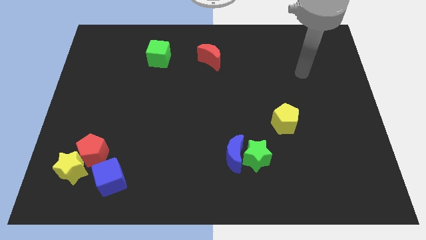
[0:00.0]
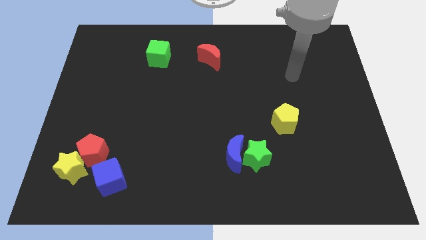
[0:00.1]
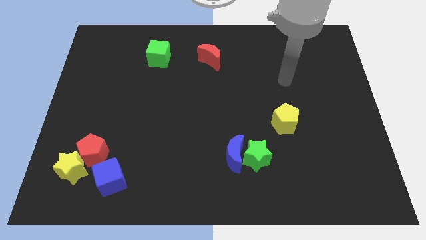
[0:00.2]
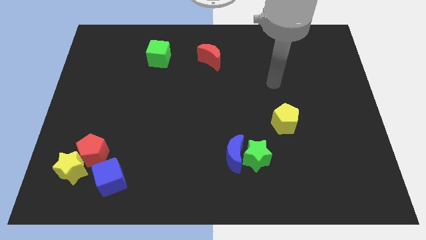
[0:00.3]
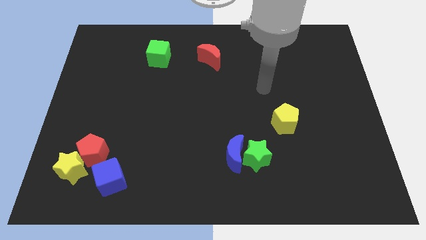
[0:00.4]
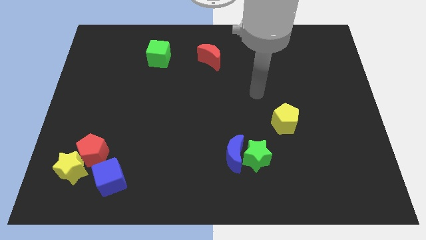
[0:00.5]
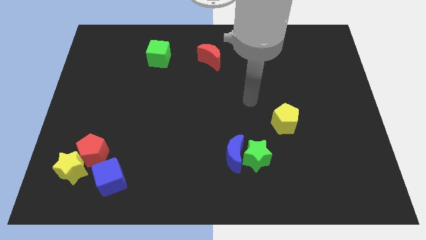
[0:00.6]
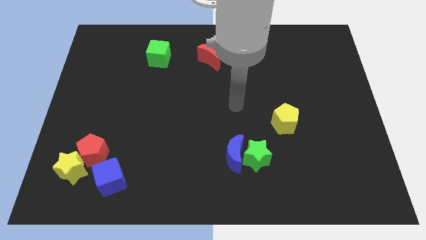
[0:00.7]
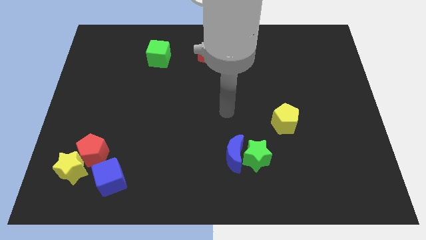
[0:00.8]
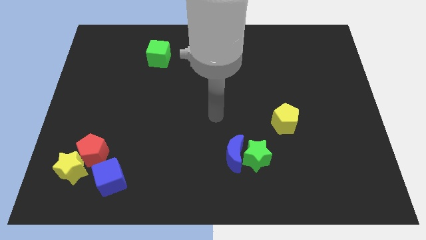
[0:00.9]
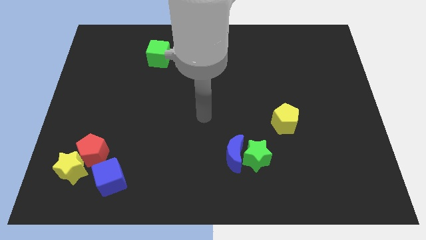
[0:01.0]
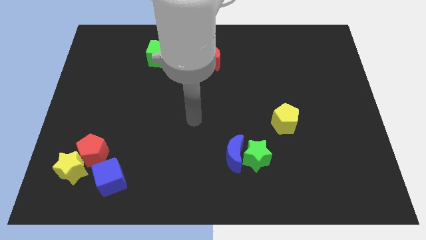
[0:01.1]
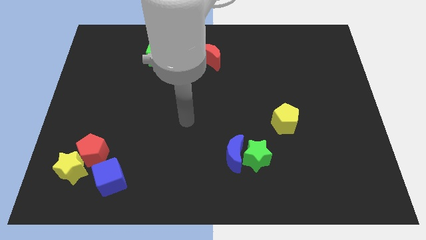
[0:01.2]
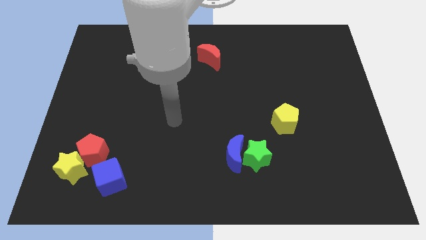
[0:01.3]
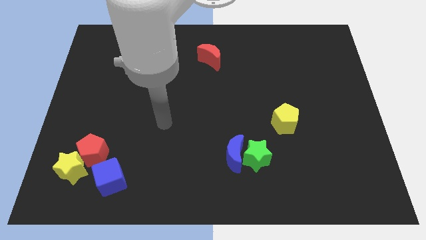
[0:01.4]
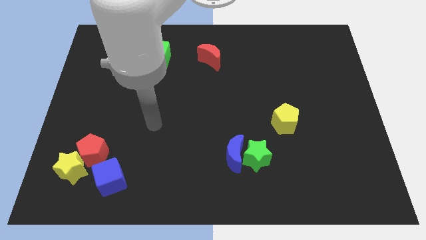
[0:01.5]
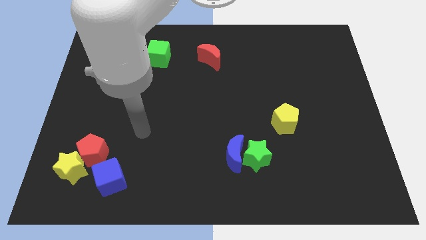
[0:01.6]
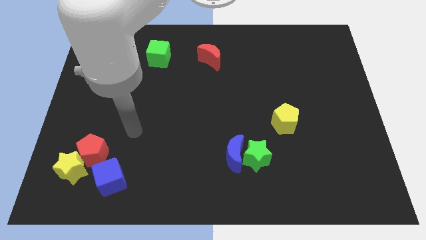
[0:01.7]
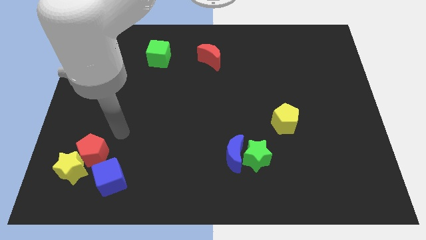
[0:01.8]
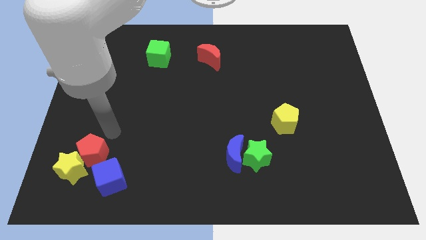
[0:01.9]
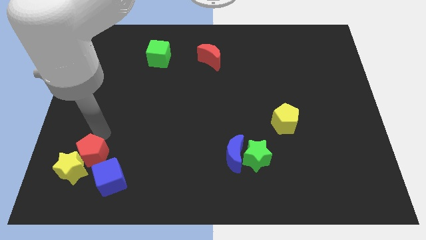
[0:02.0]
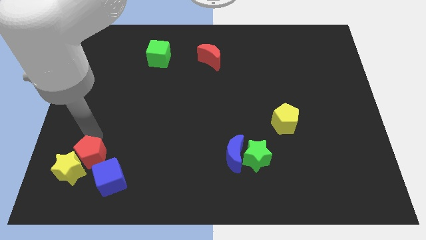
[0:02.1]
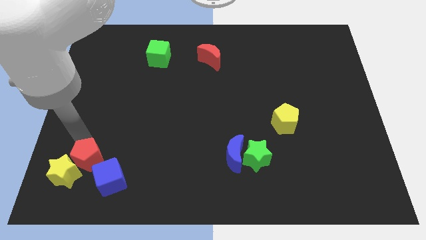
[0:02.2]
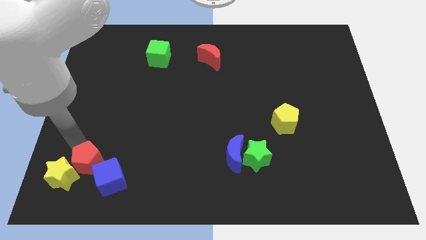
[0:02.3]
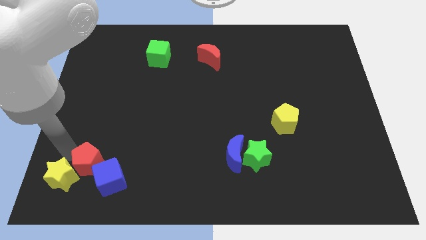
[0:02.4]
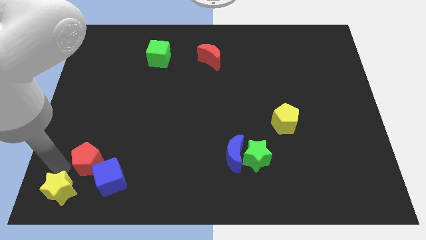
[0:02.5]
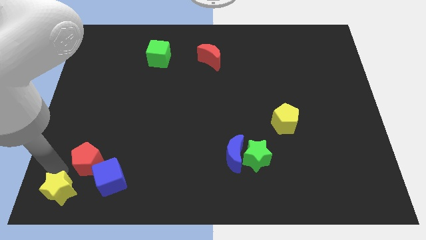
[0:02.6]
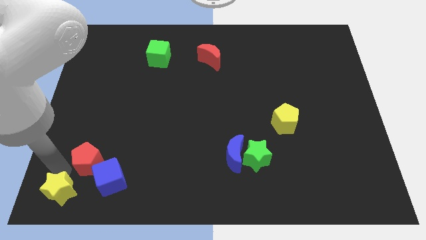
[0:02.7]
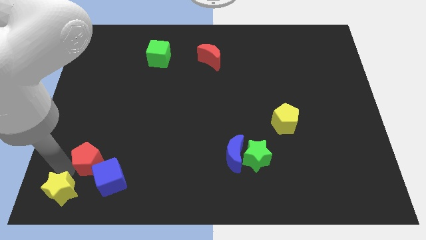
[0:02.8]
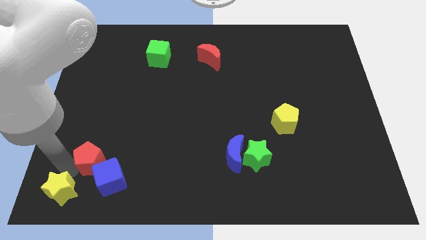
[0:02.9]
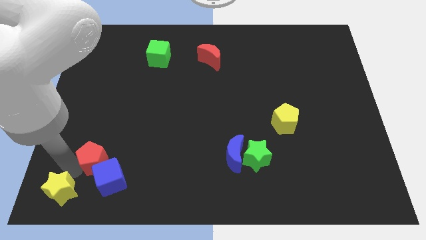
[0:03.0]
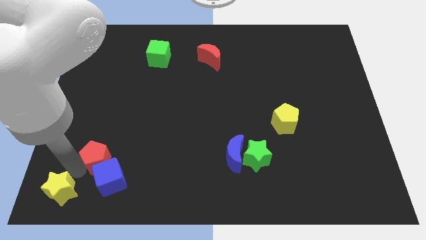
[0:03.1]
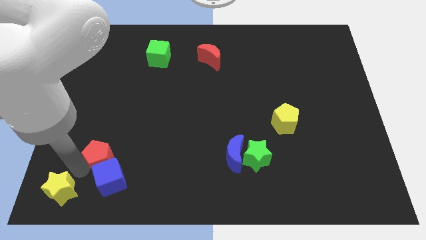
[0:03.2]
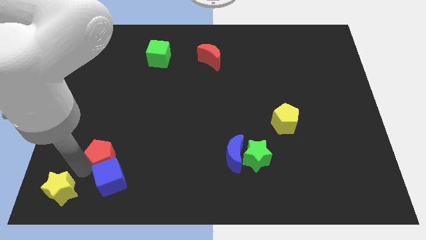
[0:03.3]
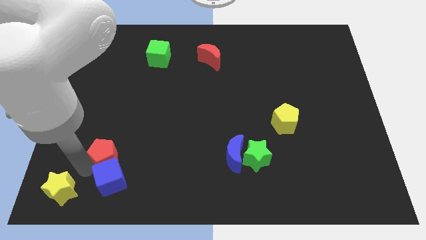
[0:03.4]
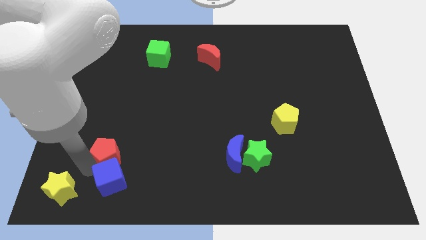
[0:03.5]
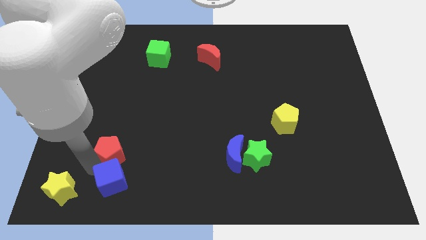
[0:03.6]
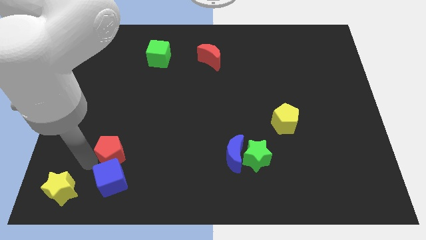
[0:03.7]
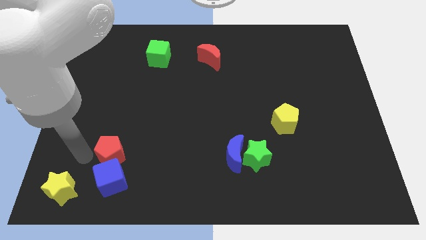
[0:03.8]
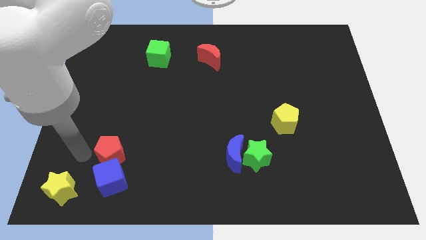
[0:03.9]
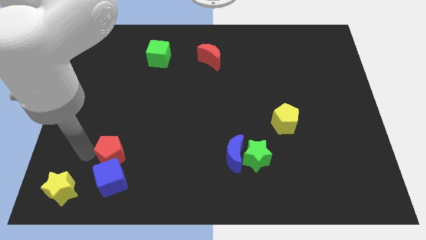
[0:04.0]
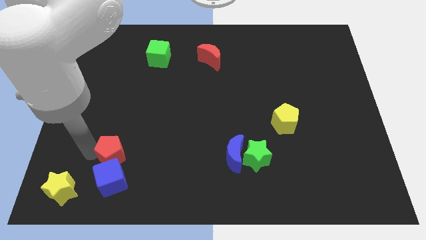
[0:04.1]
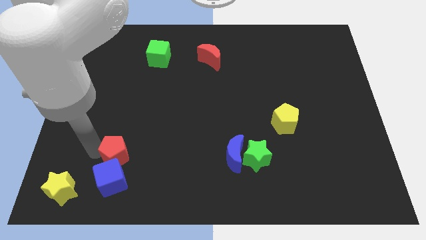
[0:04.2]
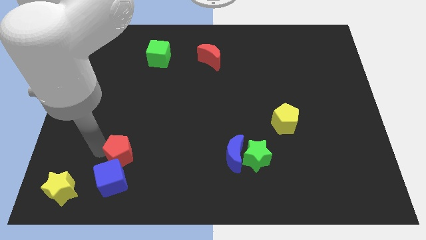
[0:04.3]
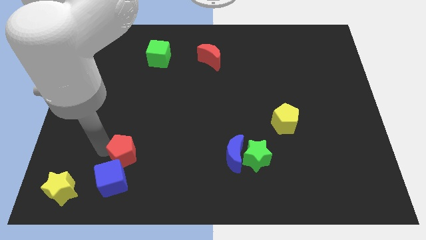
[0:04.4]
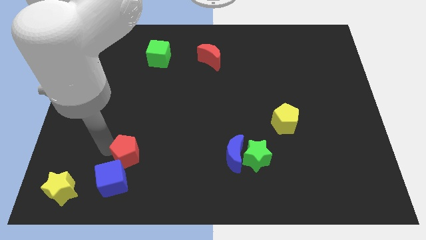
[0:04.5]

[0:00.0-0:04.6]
slightly push the red pentagon right

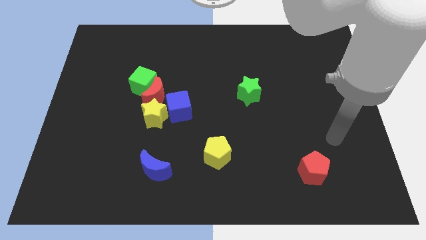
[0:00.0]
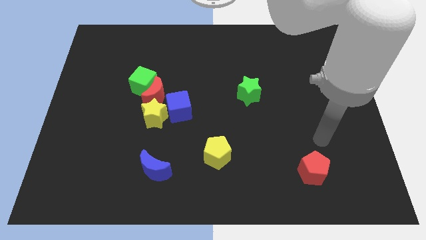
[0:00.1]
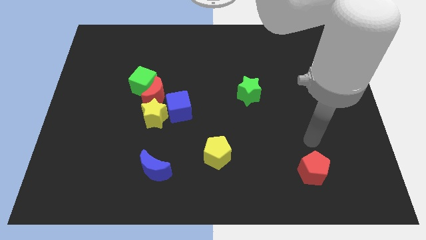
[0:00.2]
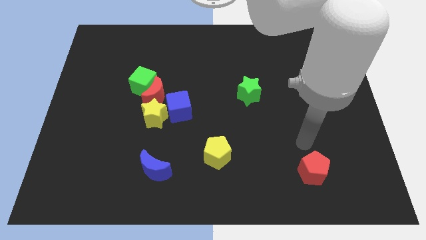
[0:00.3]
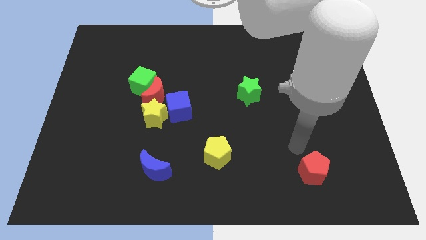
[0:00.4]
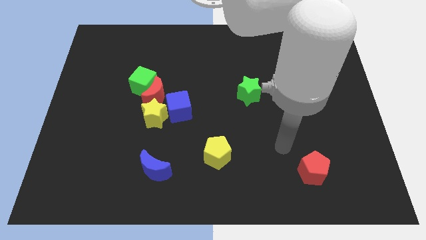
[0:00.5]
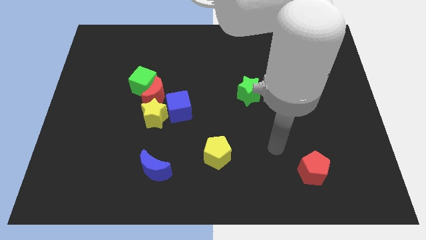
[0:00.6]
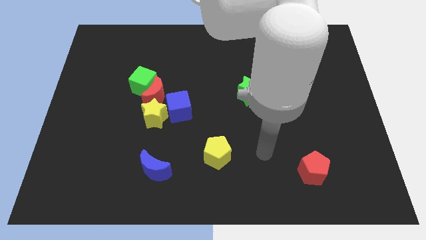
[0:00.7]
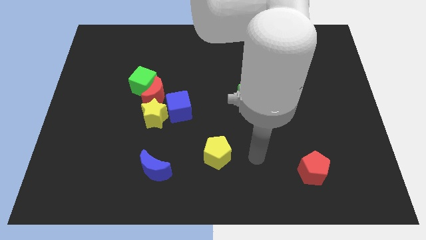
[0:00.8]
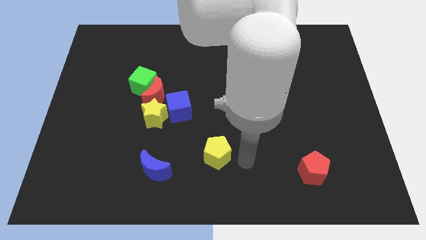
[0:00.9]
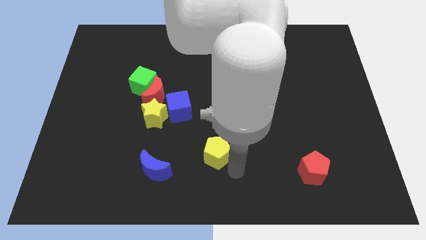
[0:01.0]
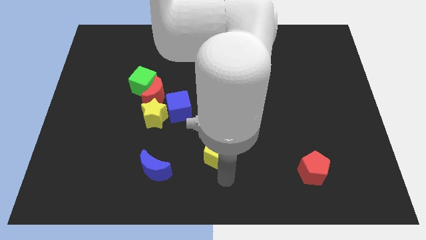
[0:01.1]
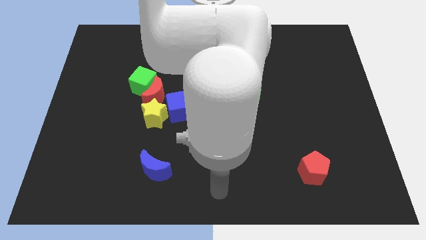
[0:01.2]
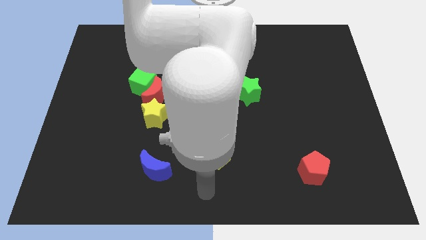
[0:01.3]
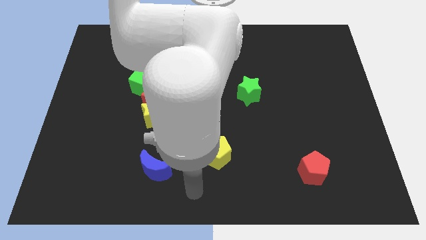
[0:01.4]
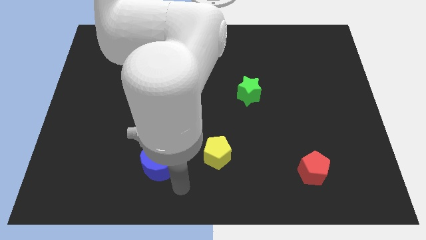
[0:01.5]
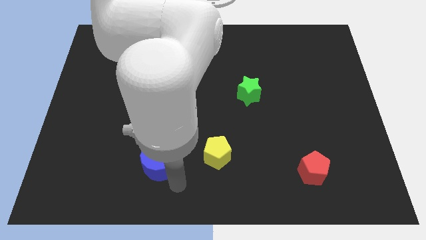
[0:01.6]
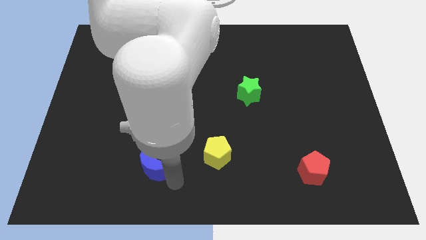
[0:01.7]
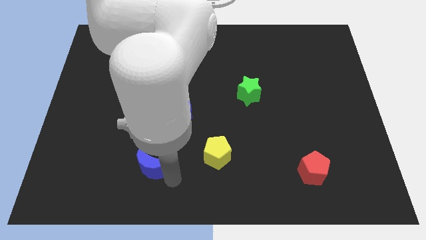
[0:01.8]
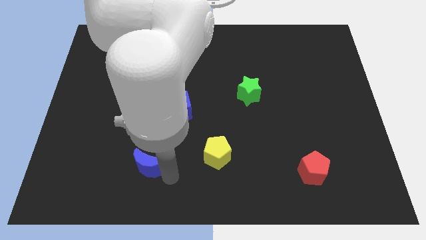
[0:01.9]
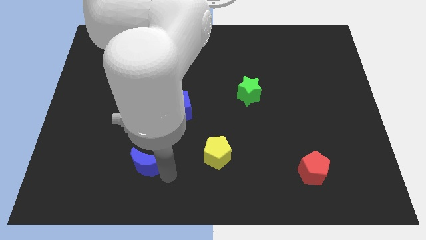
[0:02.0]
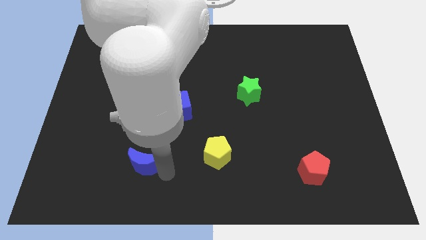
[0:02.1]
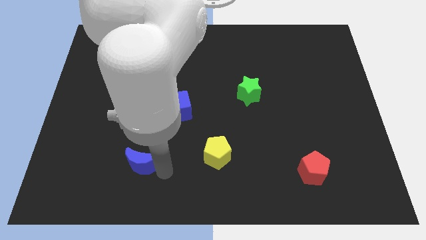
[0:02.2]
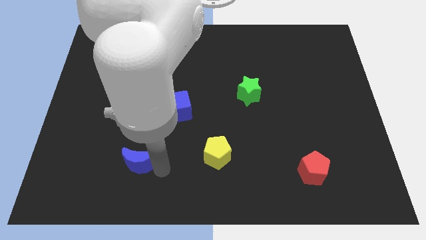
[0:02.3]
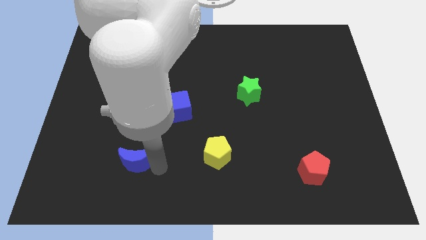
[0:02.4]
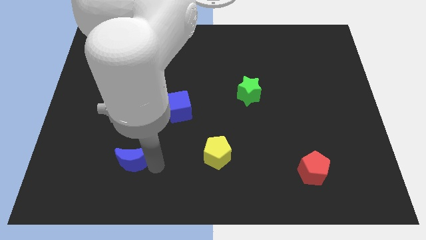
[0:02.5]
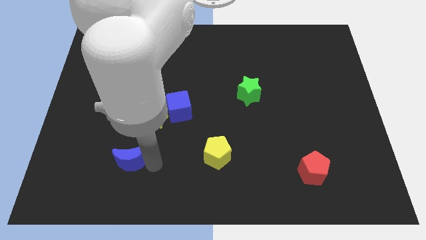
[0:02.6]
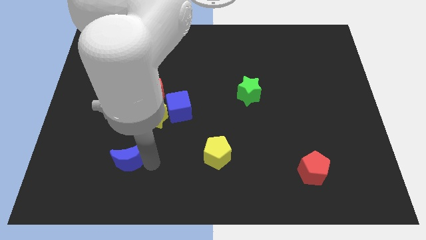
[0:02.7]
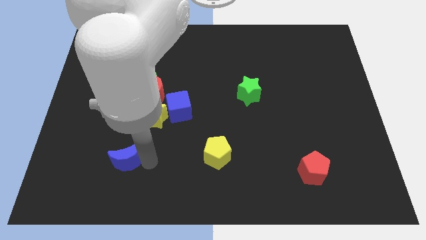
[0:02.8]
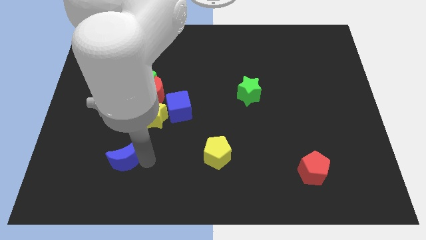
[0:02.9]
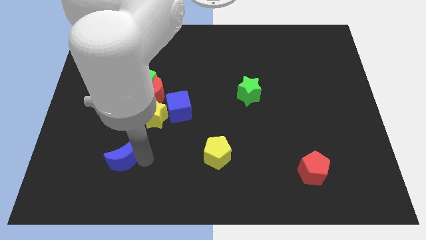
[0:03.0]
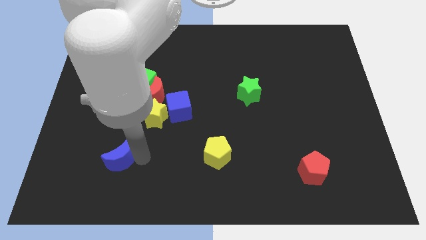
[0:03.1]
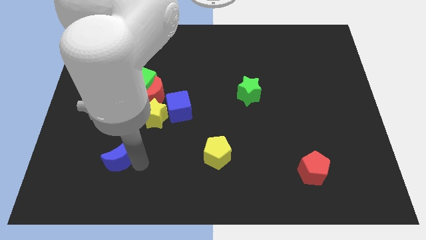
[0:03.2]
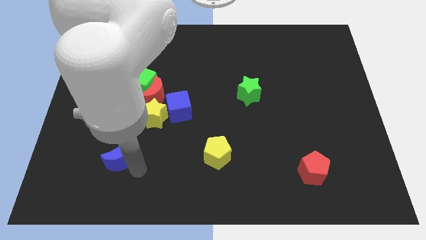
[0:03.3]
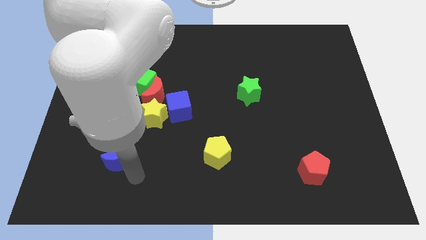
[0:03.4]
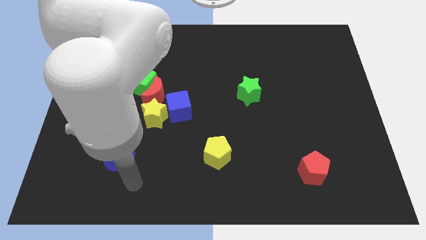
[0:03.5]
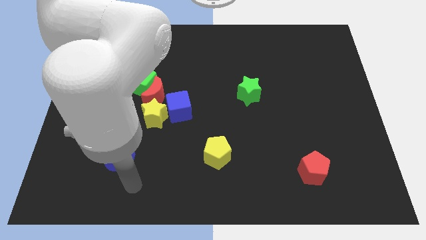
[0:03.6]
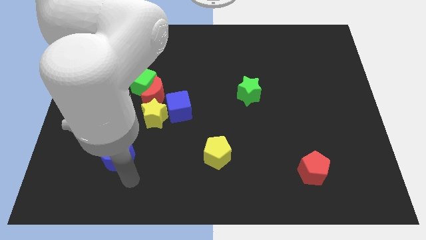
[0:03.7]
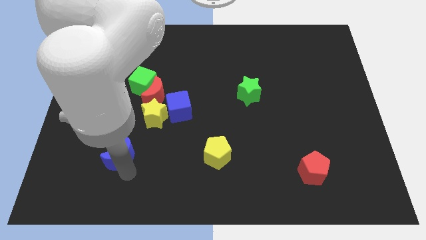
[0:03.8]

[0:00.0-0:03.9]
slide the blue moon a little bit diagonally upwards and left
